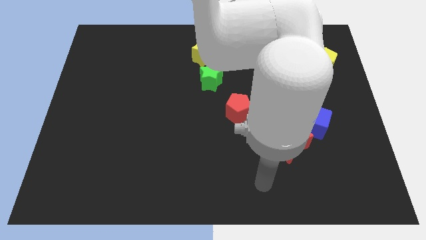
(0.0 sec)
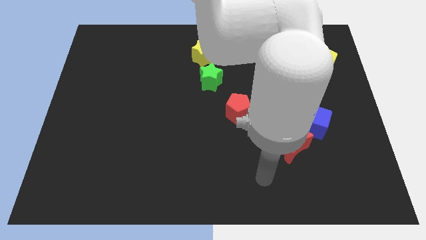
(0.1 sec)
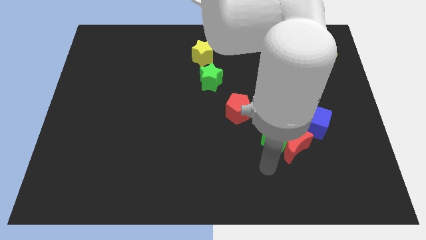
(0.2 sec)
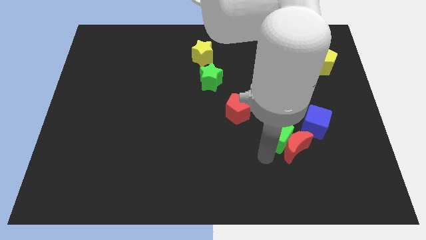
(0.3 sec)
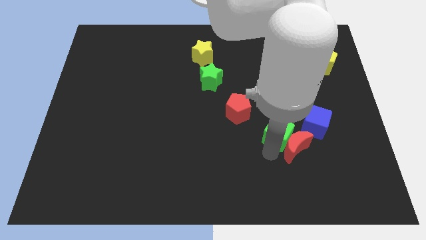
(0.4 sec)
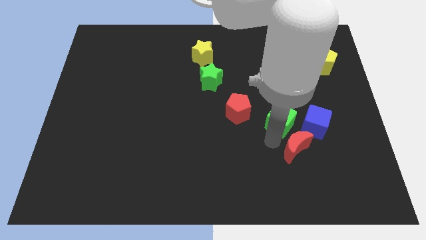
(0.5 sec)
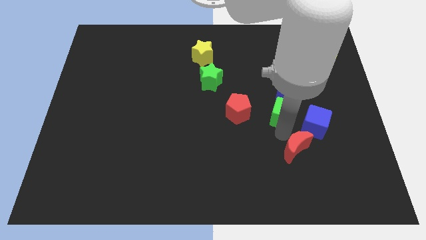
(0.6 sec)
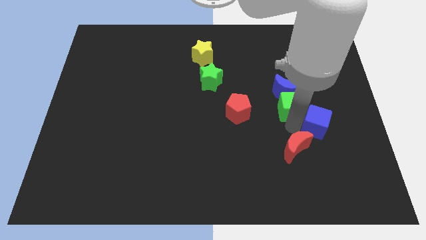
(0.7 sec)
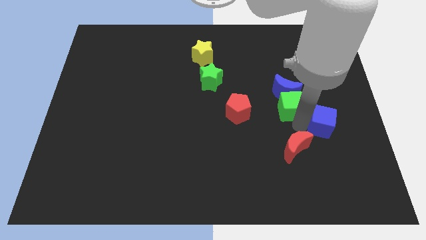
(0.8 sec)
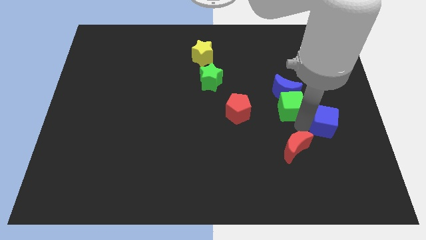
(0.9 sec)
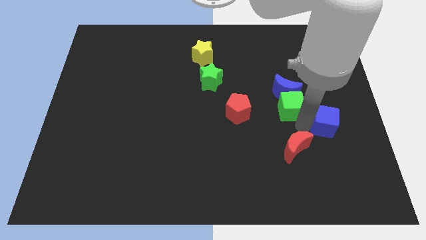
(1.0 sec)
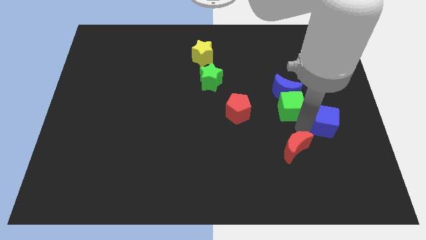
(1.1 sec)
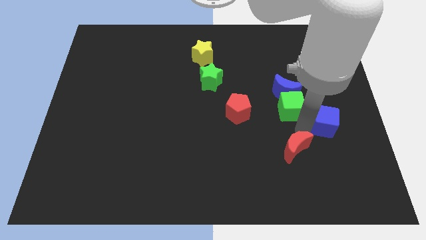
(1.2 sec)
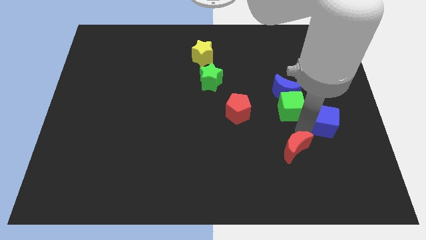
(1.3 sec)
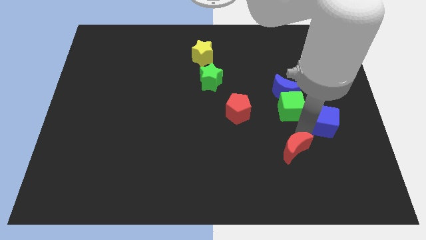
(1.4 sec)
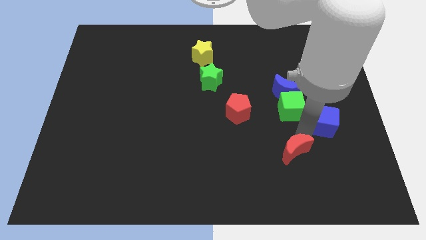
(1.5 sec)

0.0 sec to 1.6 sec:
separate the red moon from the green cube and blue cube

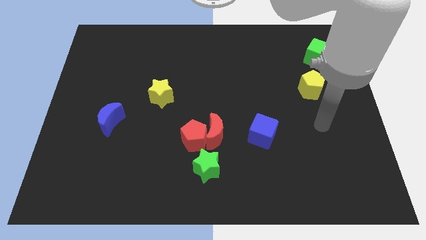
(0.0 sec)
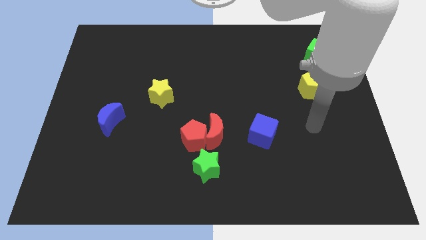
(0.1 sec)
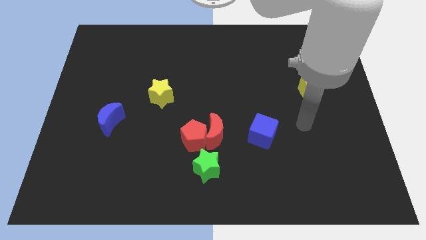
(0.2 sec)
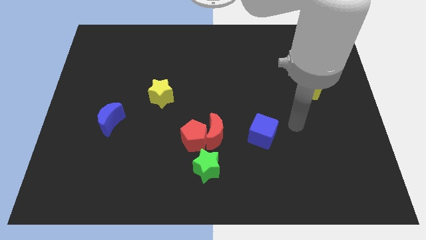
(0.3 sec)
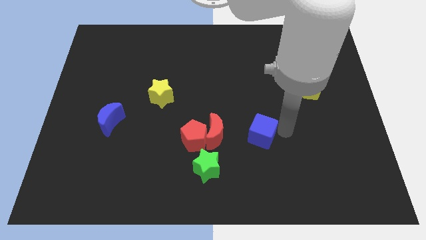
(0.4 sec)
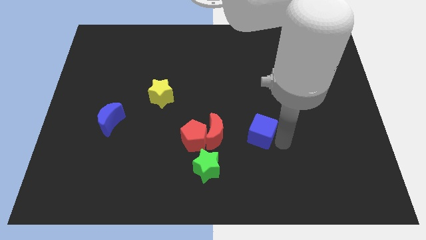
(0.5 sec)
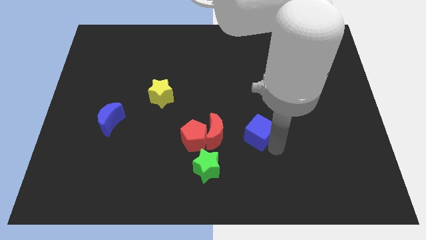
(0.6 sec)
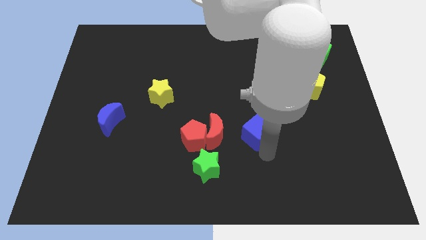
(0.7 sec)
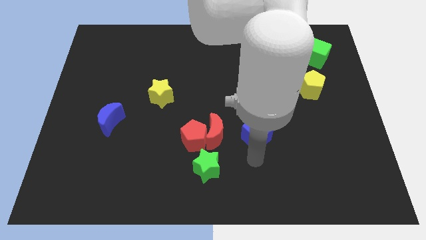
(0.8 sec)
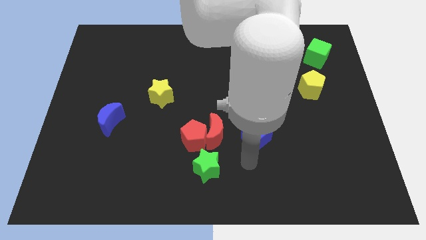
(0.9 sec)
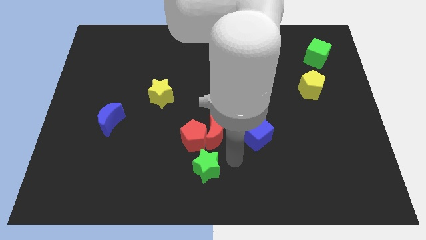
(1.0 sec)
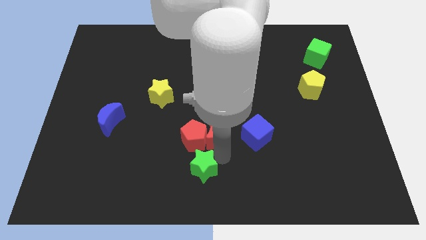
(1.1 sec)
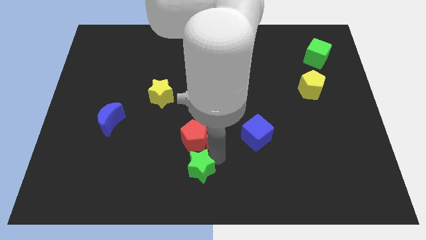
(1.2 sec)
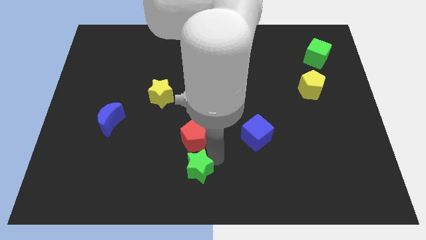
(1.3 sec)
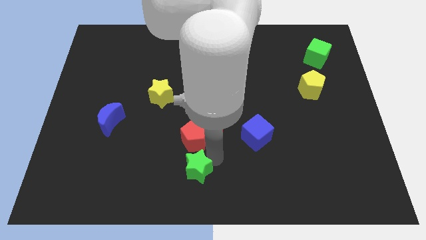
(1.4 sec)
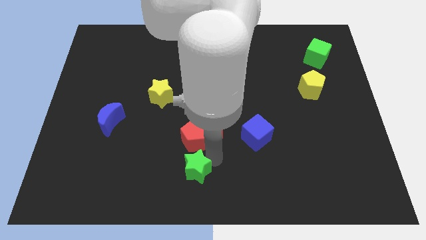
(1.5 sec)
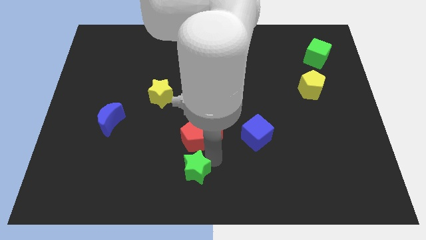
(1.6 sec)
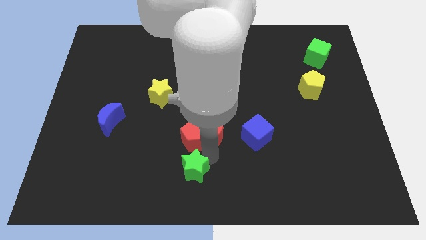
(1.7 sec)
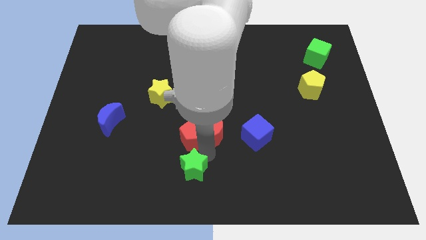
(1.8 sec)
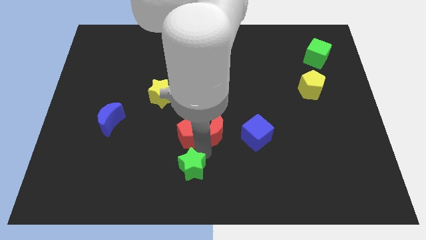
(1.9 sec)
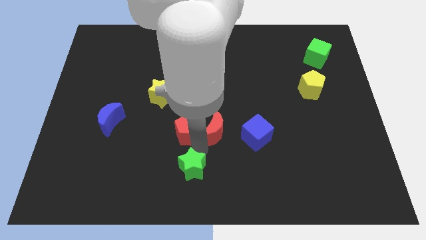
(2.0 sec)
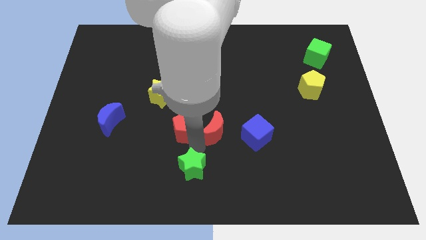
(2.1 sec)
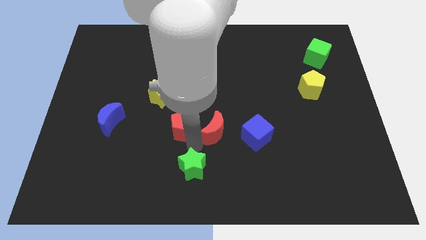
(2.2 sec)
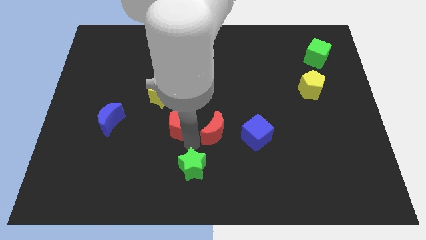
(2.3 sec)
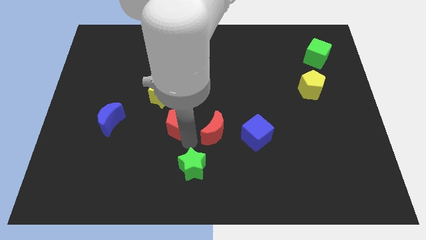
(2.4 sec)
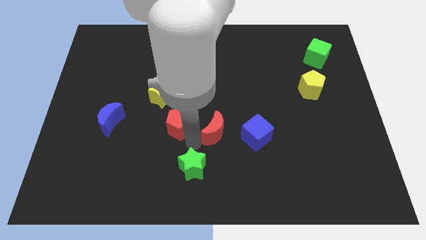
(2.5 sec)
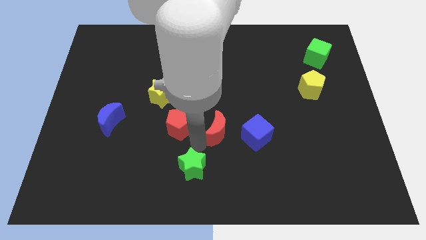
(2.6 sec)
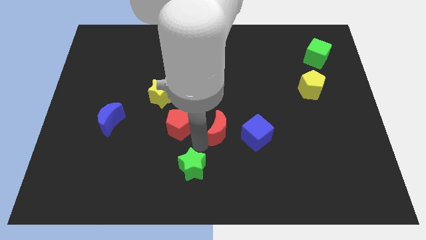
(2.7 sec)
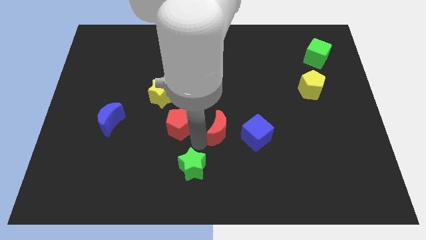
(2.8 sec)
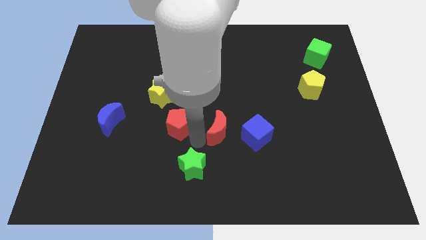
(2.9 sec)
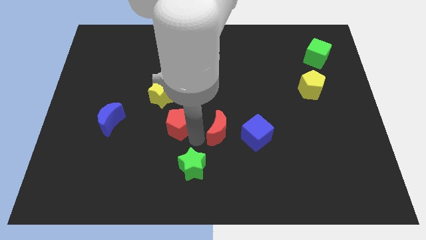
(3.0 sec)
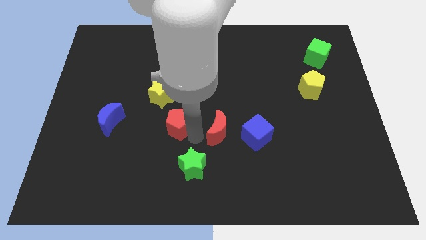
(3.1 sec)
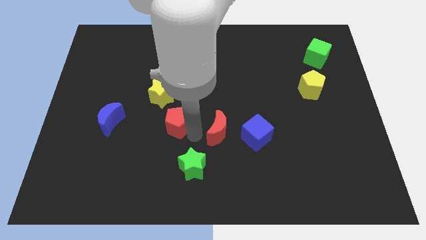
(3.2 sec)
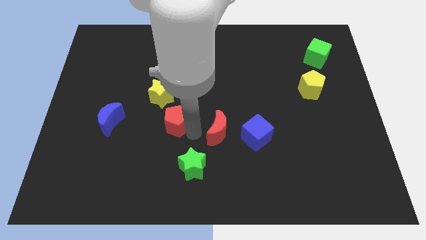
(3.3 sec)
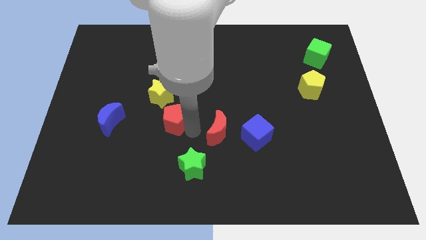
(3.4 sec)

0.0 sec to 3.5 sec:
separate the red pentagon from the red moon and green star

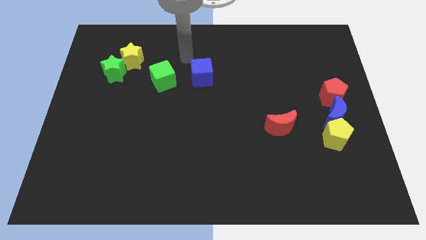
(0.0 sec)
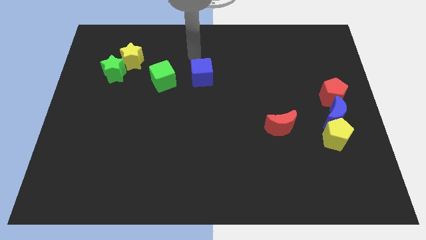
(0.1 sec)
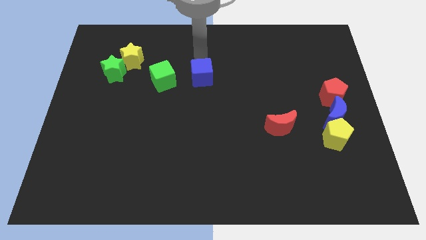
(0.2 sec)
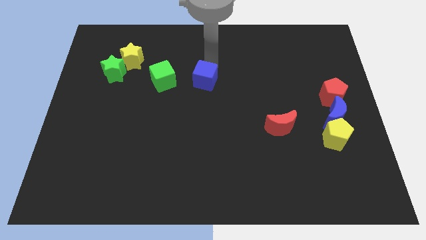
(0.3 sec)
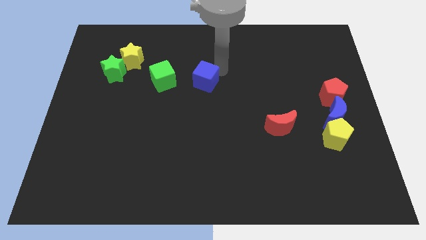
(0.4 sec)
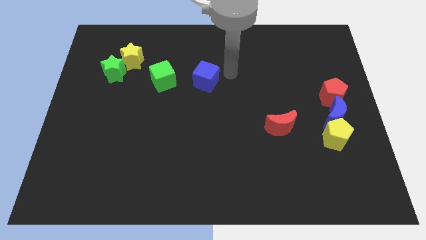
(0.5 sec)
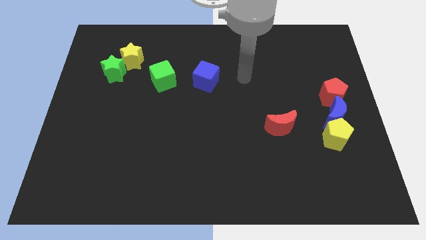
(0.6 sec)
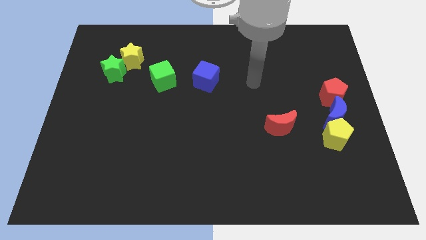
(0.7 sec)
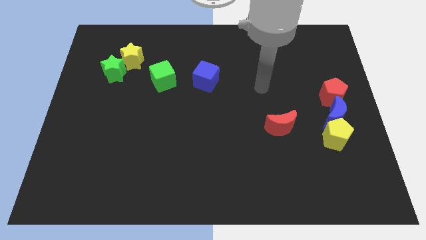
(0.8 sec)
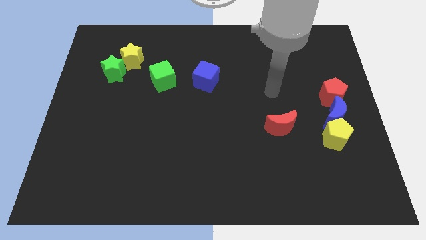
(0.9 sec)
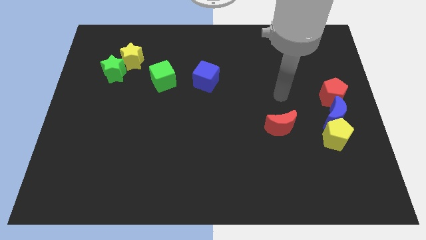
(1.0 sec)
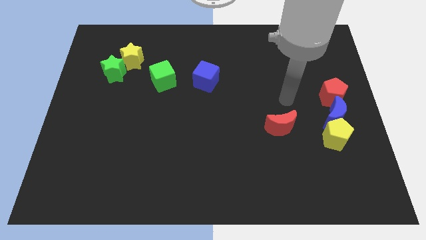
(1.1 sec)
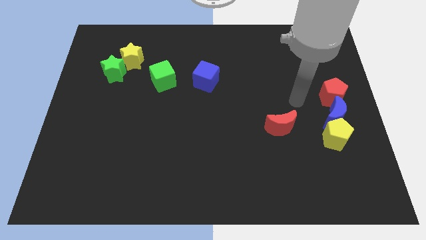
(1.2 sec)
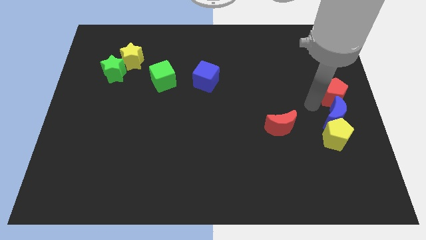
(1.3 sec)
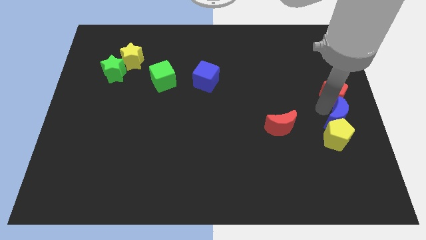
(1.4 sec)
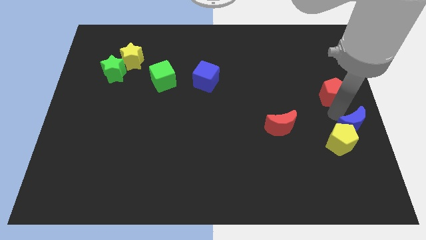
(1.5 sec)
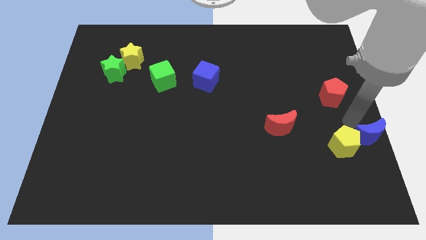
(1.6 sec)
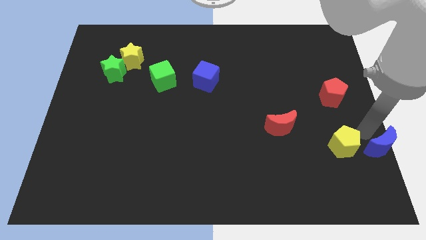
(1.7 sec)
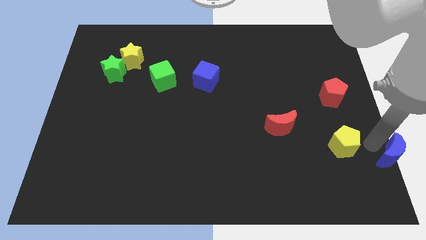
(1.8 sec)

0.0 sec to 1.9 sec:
separate the yellow pentagon from the blue moon

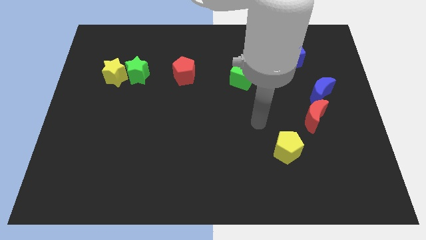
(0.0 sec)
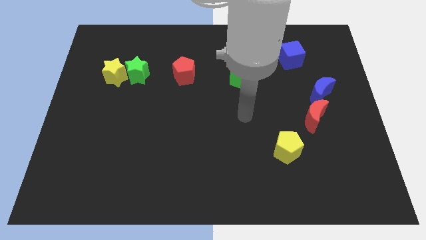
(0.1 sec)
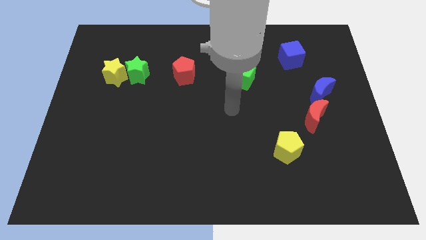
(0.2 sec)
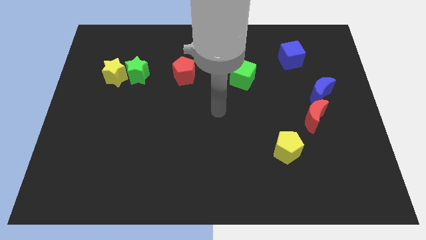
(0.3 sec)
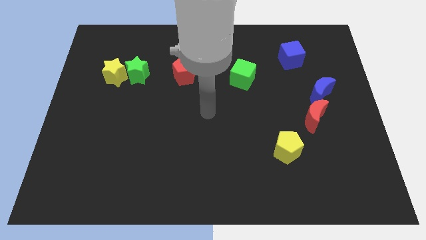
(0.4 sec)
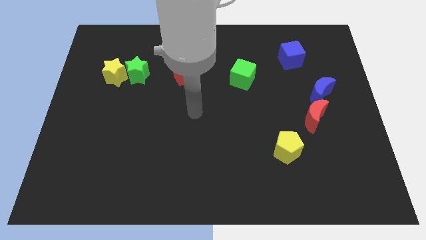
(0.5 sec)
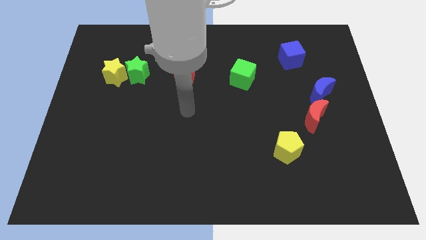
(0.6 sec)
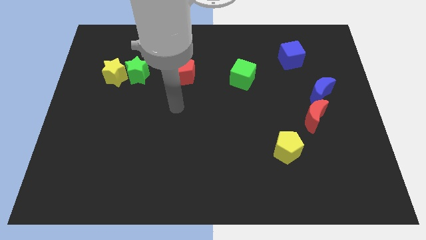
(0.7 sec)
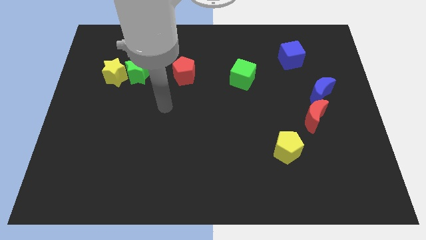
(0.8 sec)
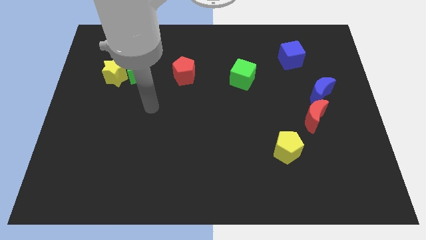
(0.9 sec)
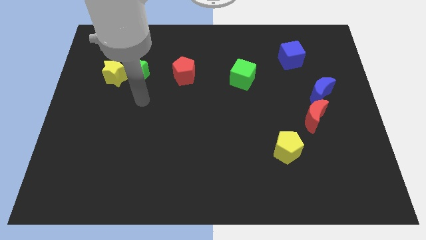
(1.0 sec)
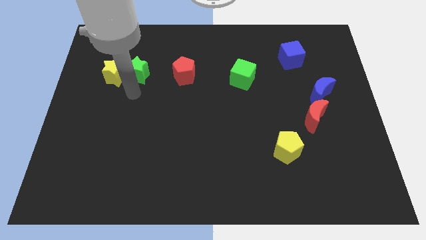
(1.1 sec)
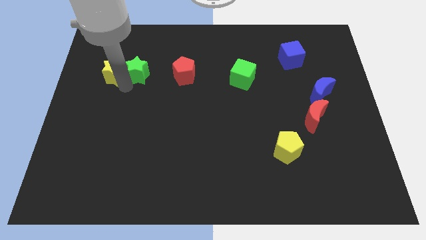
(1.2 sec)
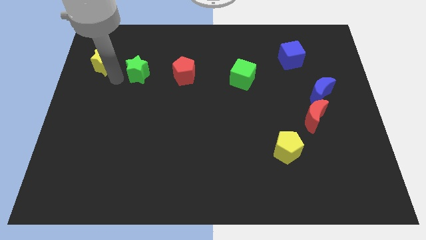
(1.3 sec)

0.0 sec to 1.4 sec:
pull the green star apart from the yellow star

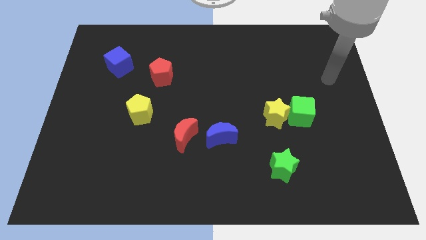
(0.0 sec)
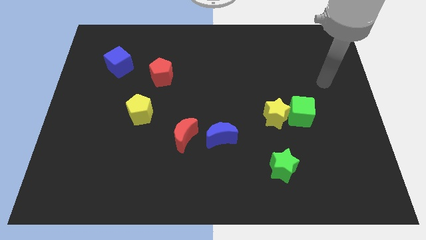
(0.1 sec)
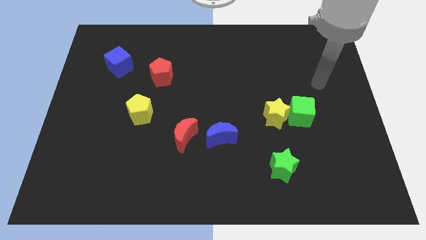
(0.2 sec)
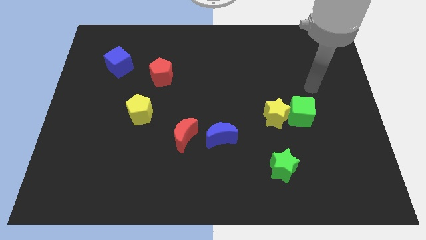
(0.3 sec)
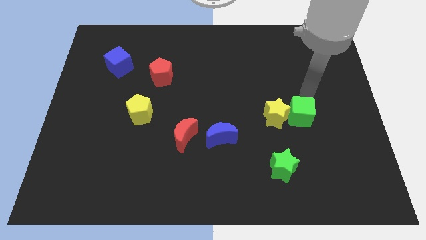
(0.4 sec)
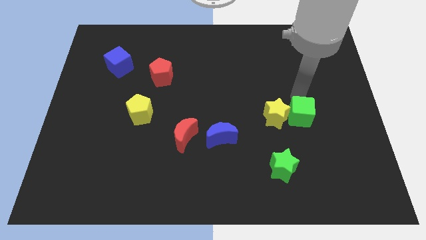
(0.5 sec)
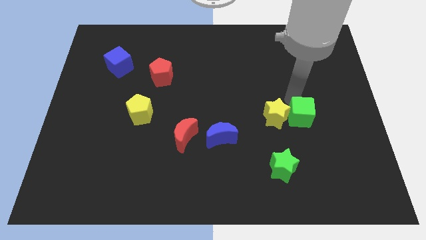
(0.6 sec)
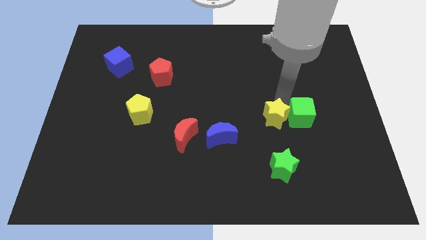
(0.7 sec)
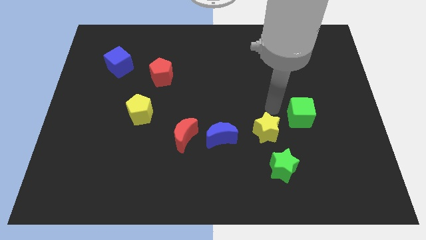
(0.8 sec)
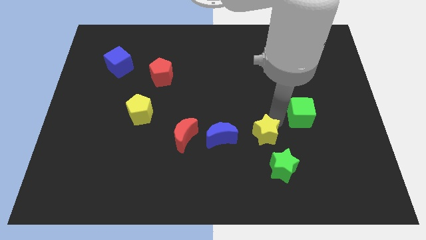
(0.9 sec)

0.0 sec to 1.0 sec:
move the green cube away from the yellow star

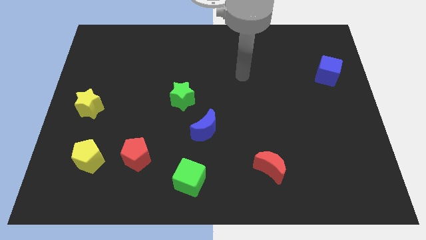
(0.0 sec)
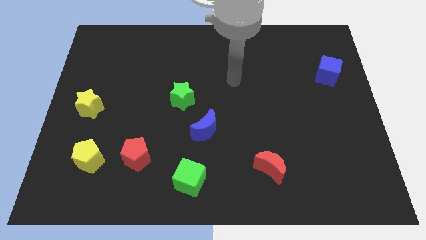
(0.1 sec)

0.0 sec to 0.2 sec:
pull the red pentagon apart from the yellow pentagon
